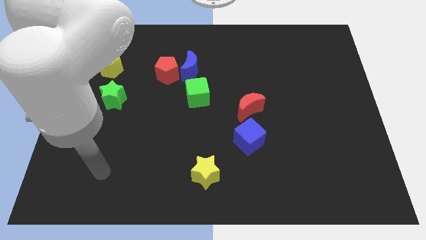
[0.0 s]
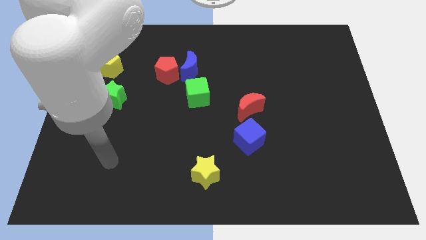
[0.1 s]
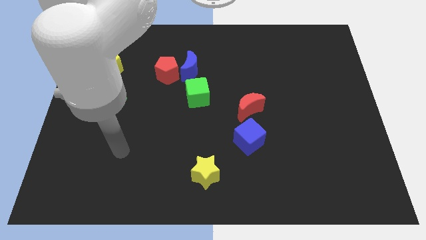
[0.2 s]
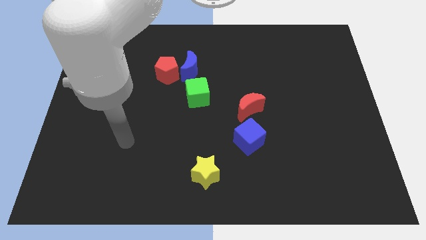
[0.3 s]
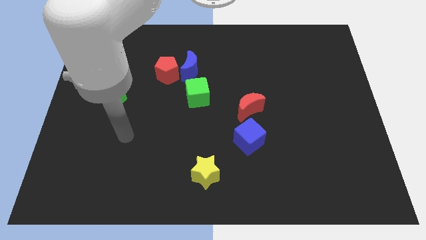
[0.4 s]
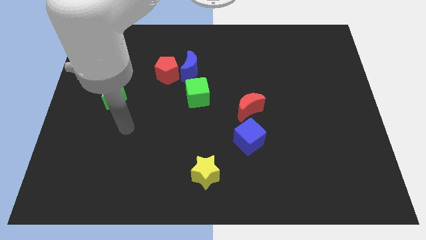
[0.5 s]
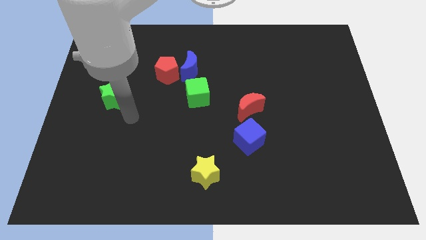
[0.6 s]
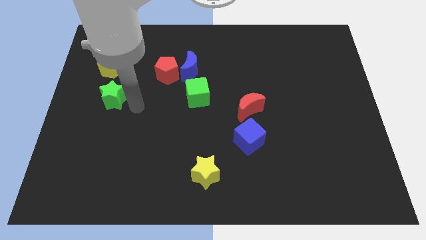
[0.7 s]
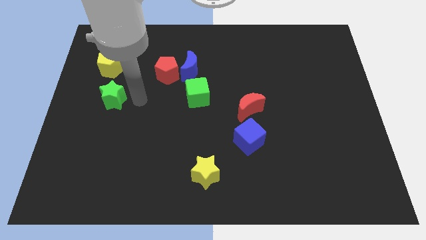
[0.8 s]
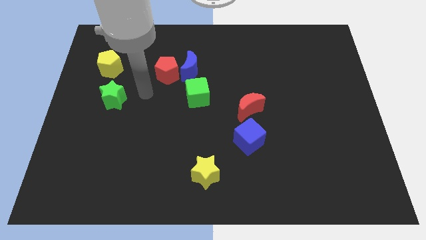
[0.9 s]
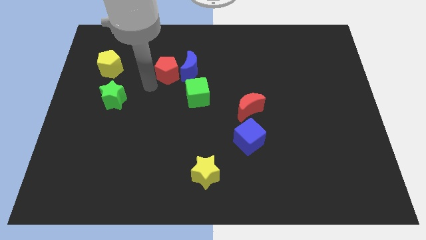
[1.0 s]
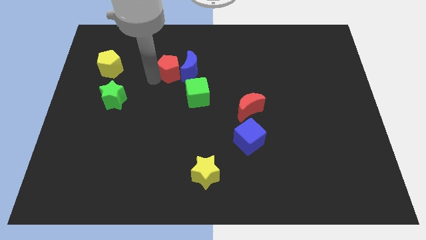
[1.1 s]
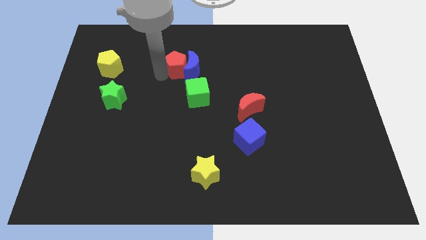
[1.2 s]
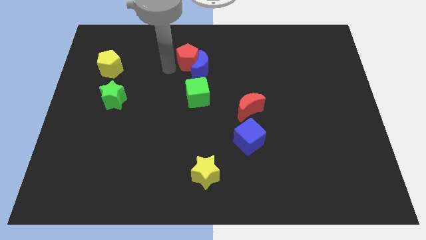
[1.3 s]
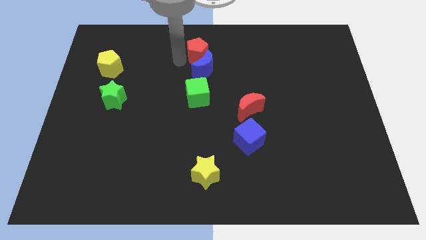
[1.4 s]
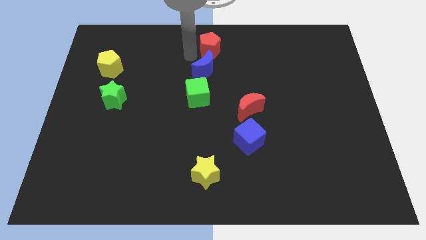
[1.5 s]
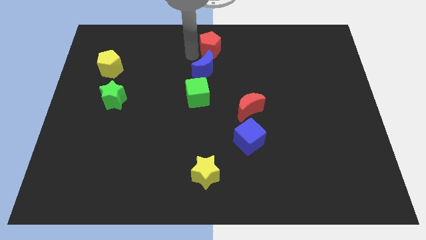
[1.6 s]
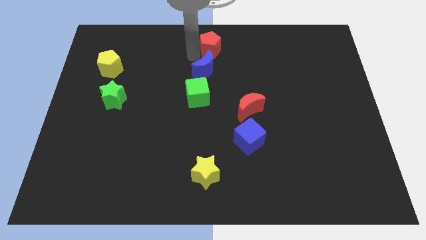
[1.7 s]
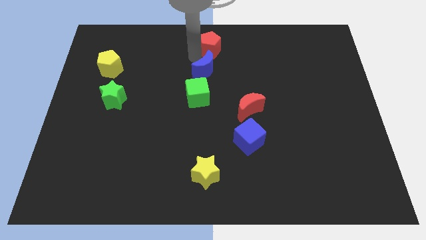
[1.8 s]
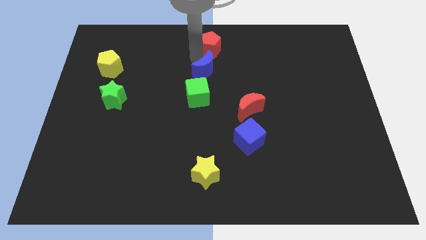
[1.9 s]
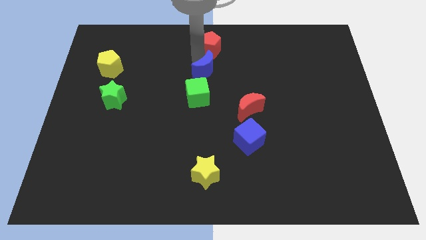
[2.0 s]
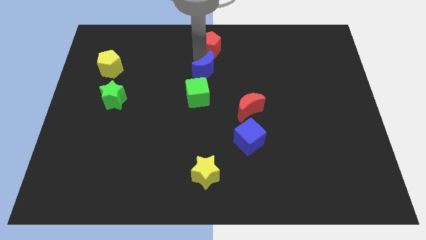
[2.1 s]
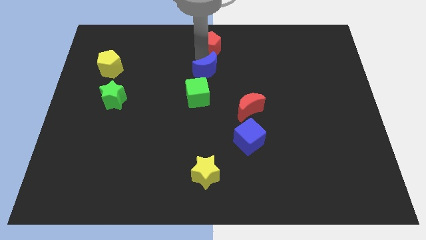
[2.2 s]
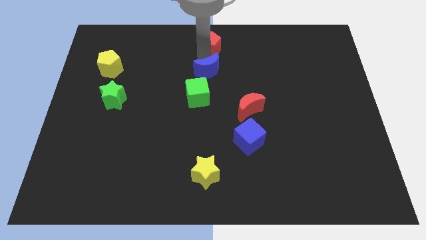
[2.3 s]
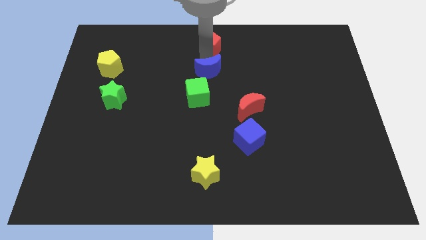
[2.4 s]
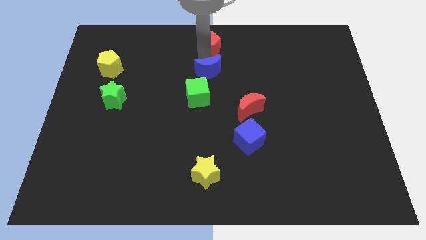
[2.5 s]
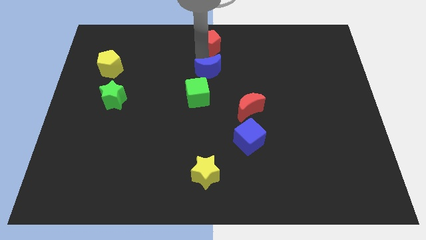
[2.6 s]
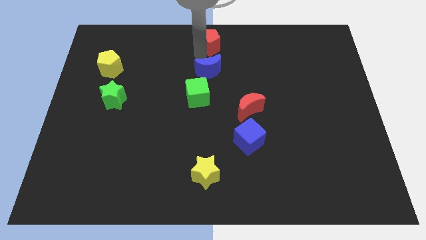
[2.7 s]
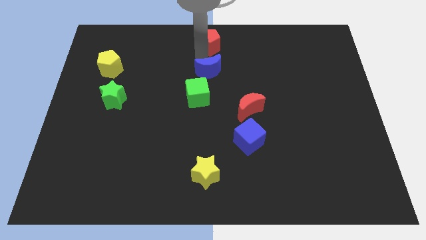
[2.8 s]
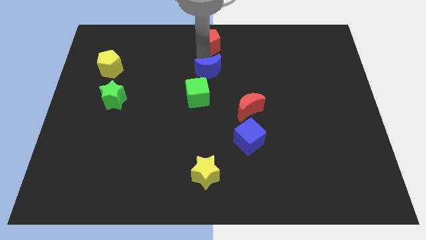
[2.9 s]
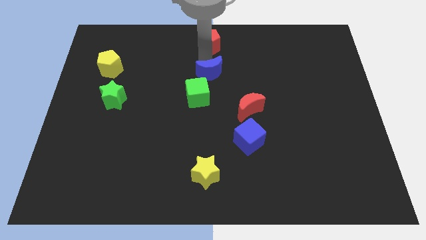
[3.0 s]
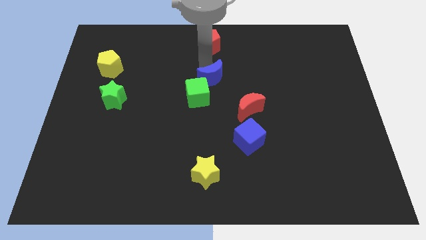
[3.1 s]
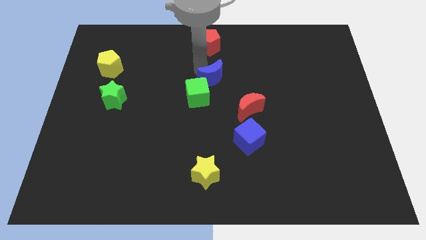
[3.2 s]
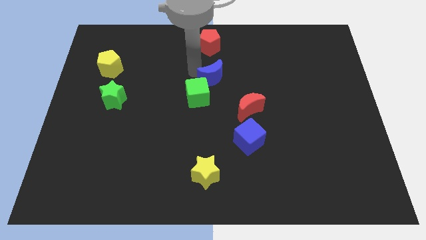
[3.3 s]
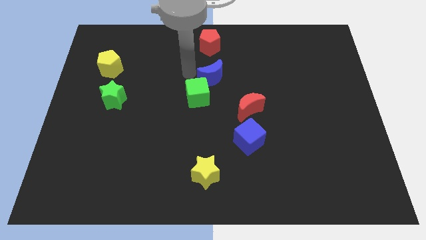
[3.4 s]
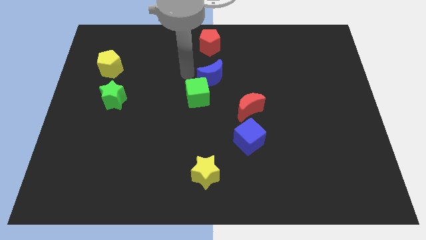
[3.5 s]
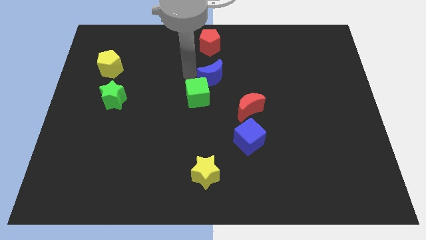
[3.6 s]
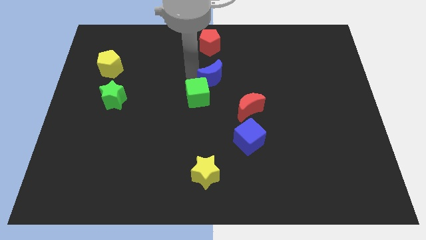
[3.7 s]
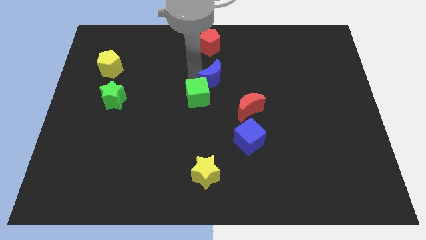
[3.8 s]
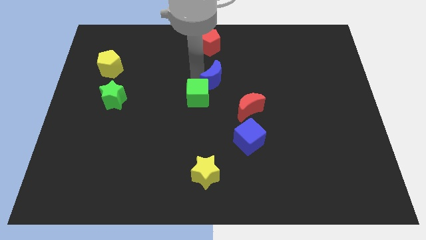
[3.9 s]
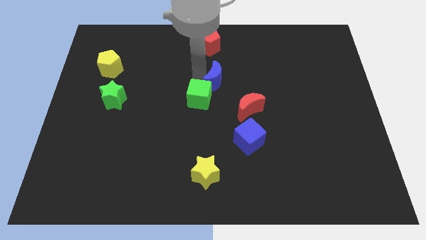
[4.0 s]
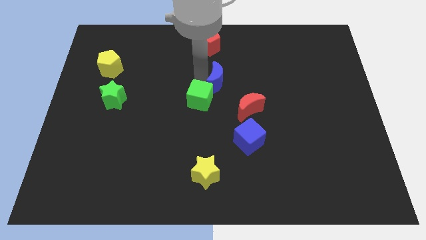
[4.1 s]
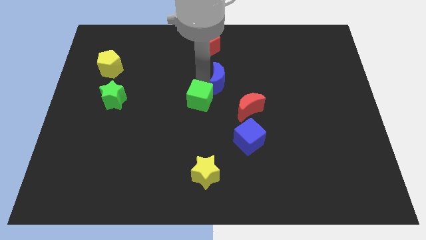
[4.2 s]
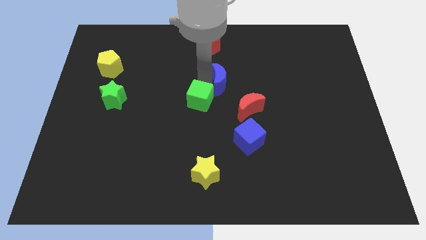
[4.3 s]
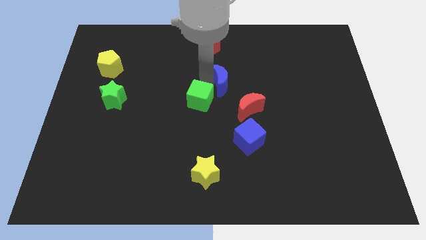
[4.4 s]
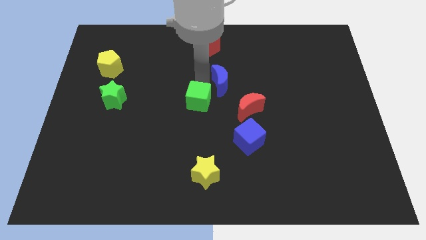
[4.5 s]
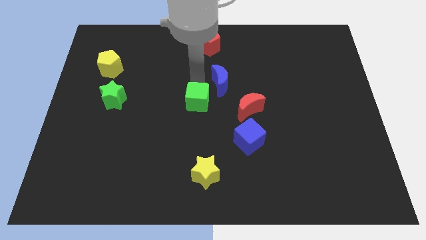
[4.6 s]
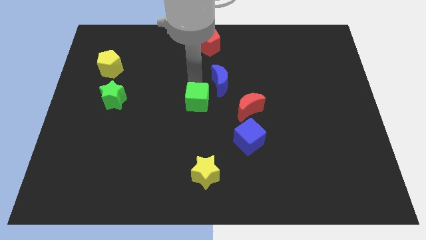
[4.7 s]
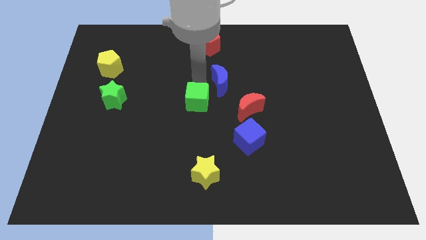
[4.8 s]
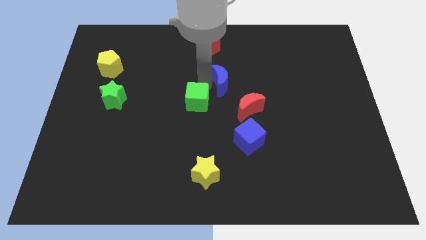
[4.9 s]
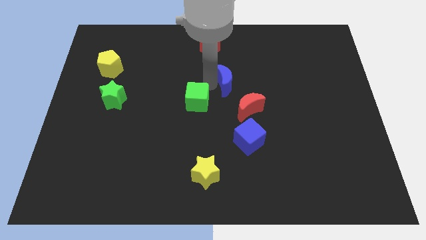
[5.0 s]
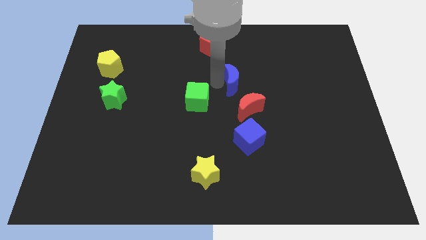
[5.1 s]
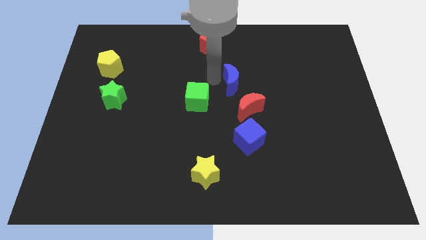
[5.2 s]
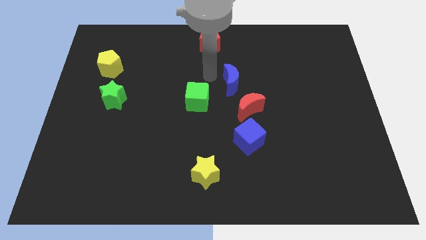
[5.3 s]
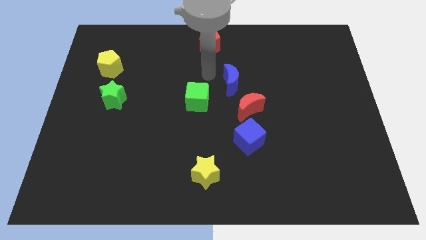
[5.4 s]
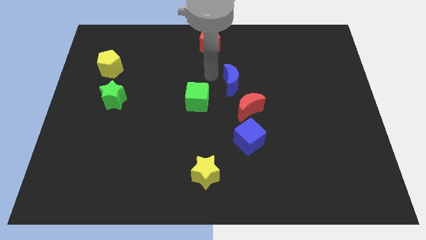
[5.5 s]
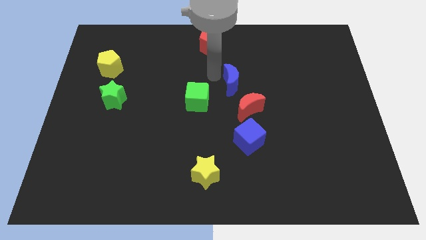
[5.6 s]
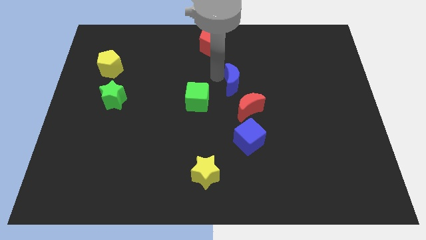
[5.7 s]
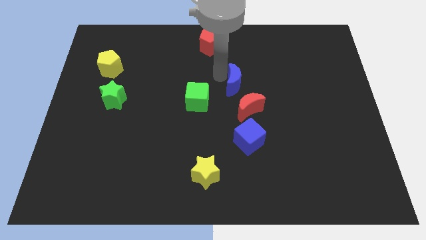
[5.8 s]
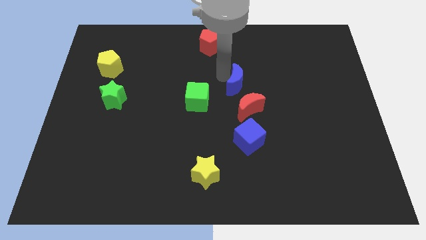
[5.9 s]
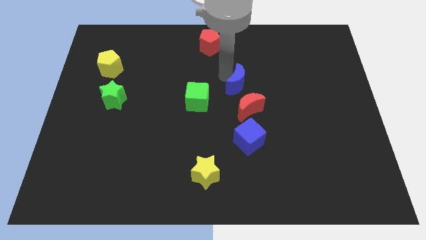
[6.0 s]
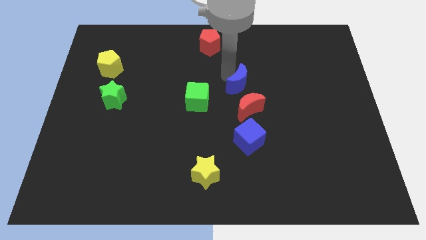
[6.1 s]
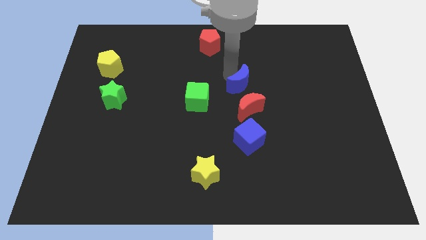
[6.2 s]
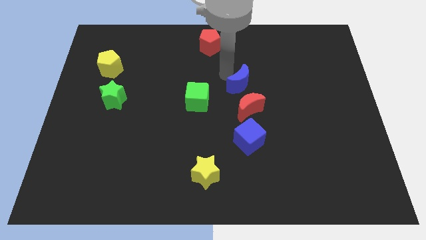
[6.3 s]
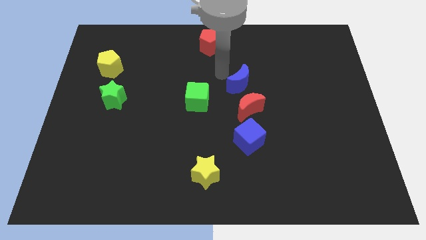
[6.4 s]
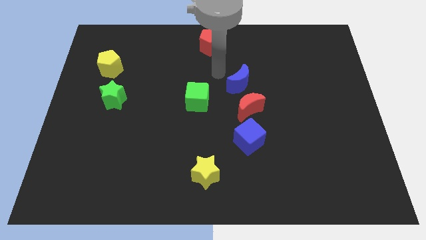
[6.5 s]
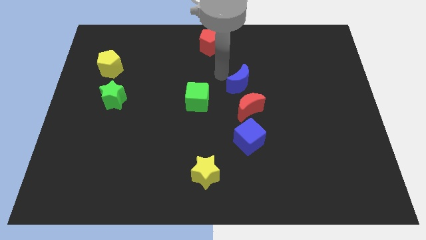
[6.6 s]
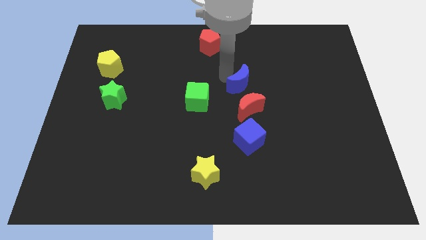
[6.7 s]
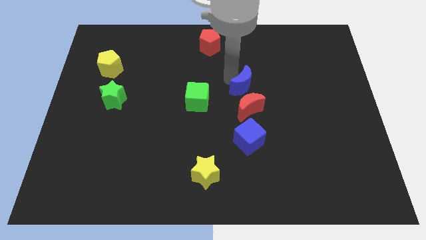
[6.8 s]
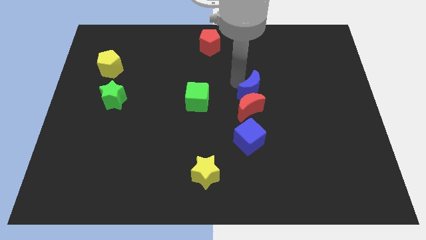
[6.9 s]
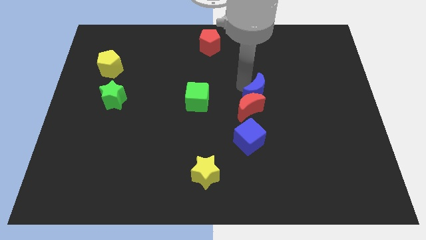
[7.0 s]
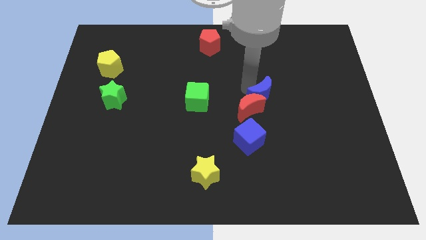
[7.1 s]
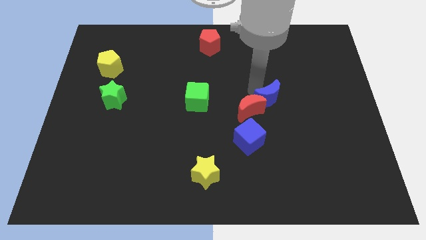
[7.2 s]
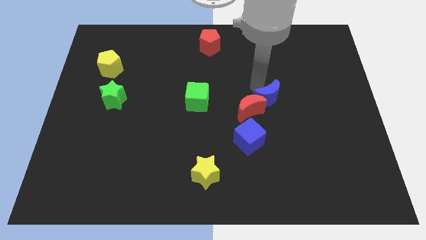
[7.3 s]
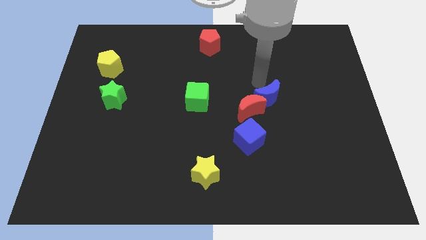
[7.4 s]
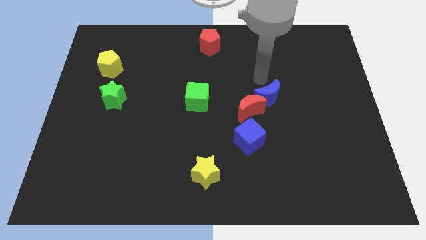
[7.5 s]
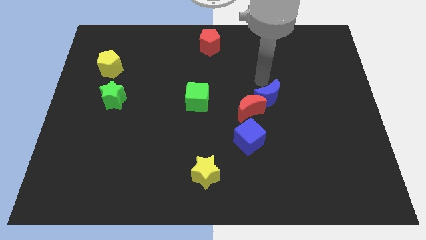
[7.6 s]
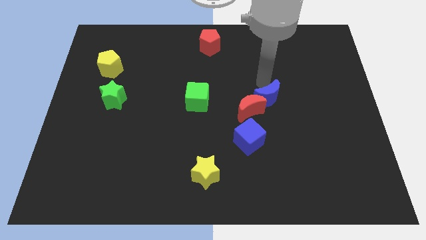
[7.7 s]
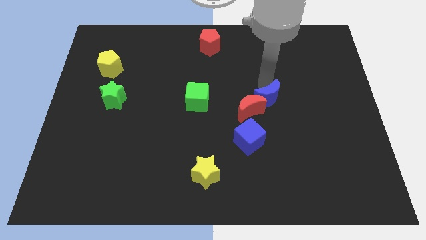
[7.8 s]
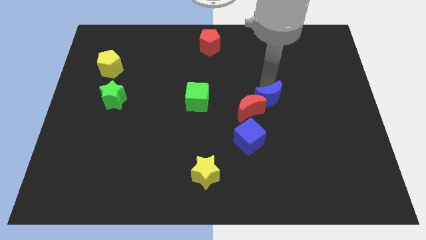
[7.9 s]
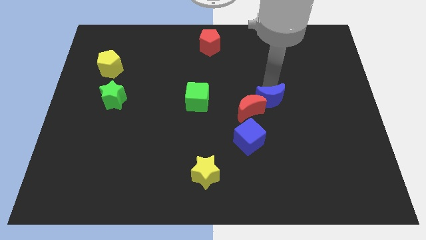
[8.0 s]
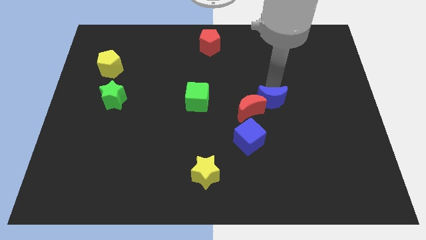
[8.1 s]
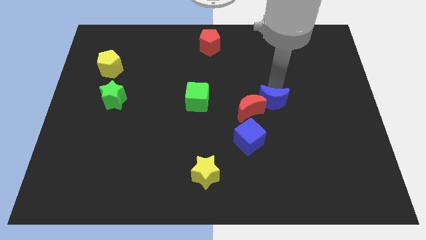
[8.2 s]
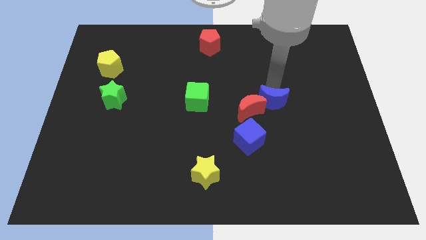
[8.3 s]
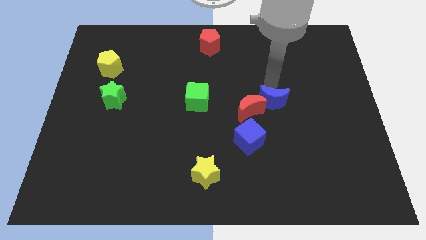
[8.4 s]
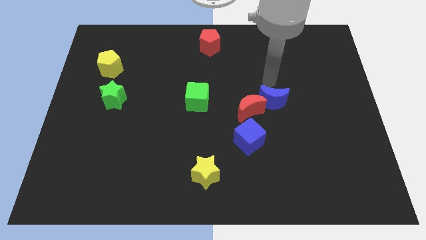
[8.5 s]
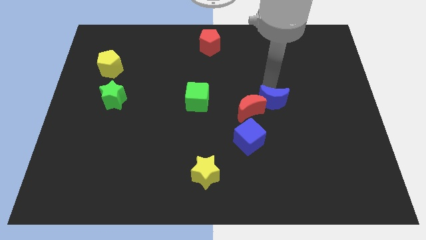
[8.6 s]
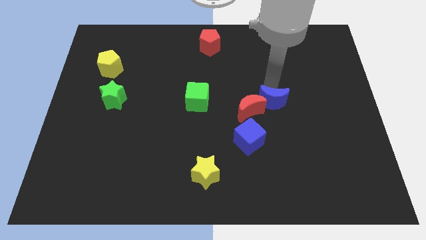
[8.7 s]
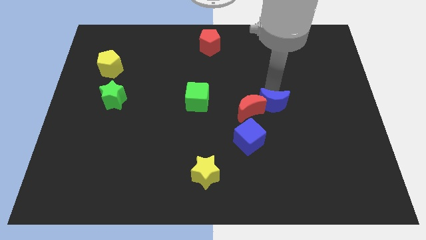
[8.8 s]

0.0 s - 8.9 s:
slide the blue moon down and right
